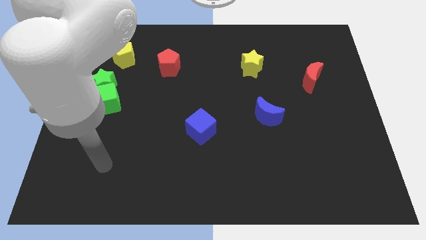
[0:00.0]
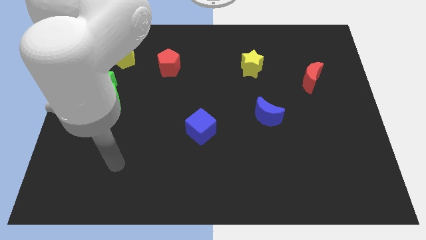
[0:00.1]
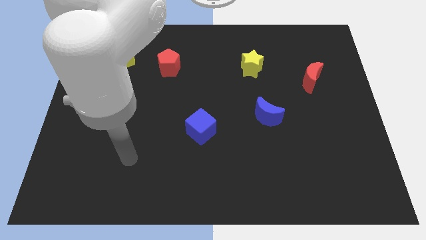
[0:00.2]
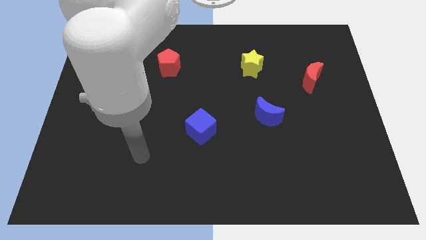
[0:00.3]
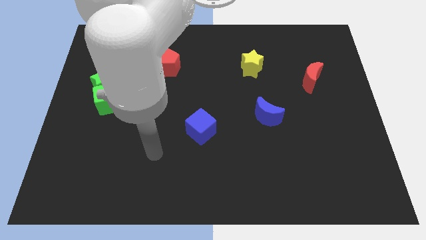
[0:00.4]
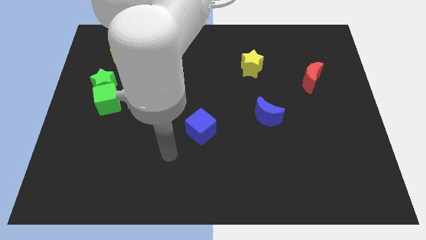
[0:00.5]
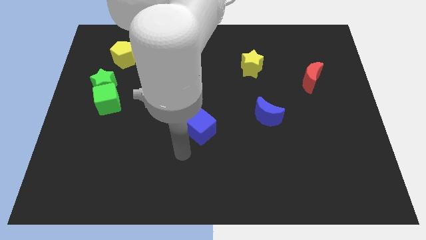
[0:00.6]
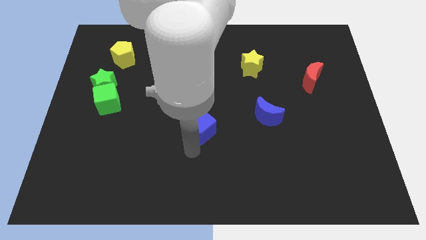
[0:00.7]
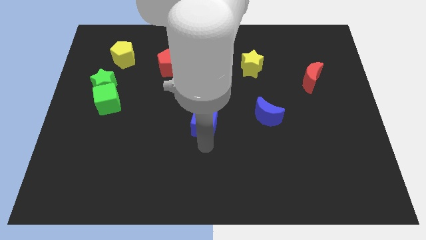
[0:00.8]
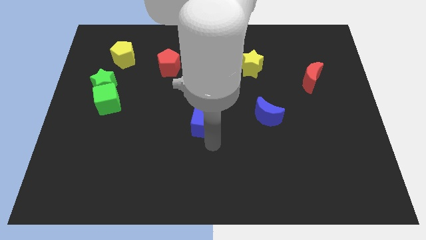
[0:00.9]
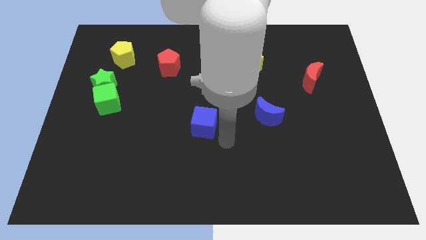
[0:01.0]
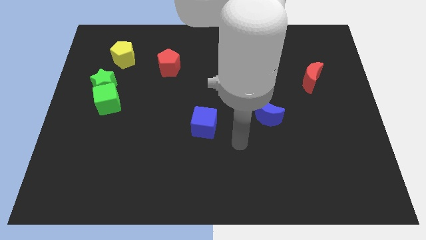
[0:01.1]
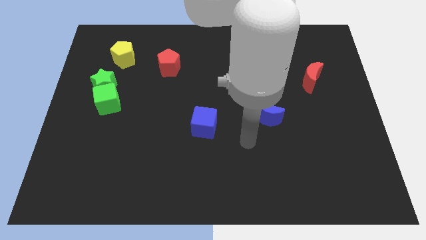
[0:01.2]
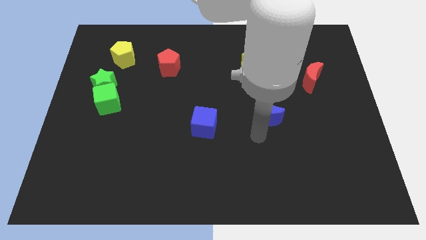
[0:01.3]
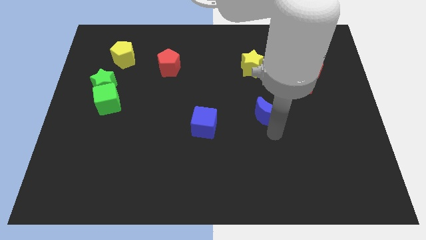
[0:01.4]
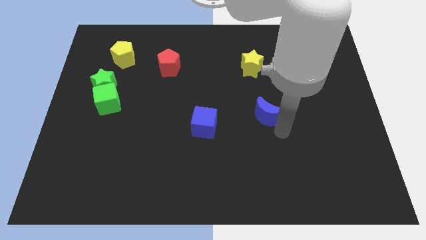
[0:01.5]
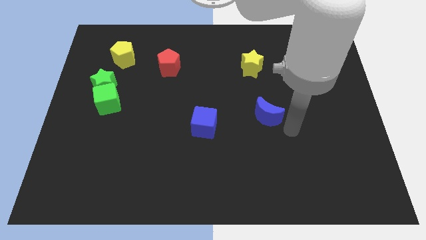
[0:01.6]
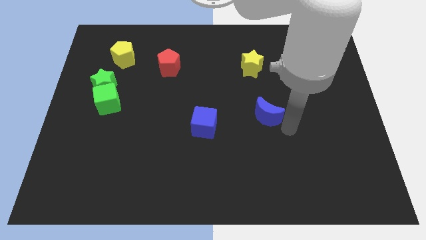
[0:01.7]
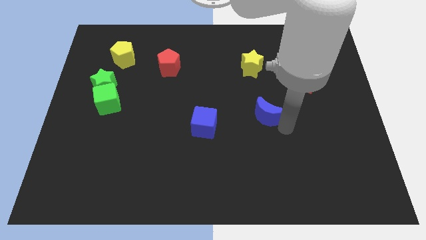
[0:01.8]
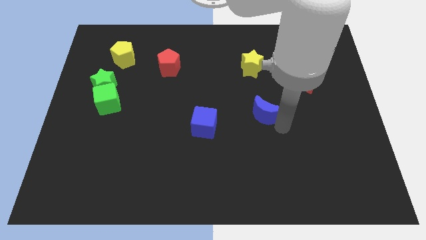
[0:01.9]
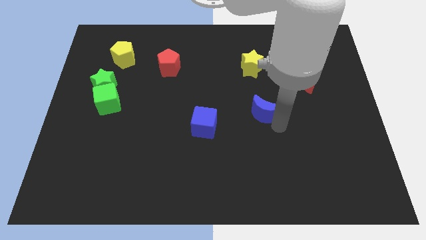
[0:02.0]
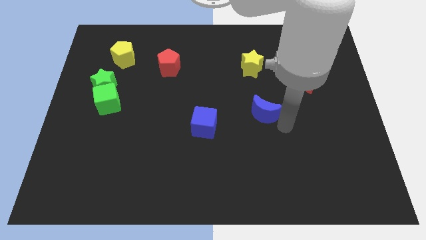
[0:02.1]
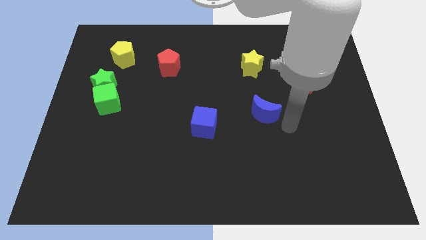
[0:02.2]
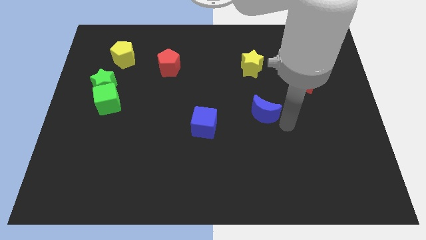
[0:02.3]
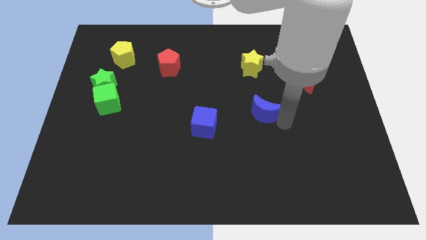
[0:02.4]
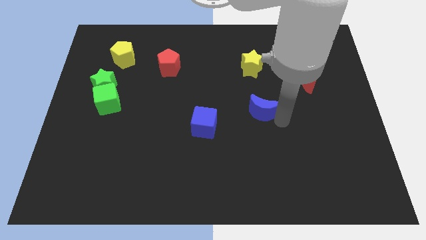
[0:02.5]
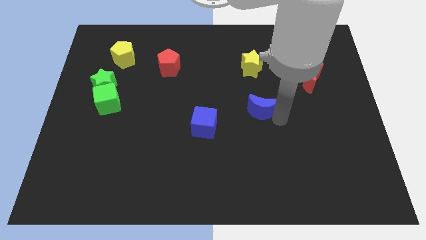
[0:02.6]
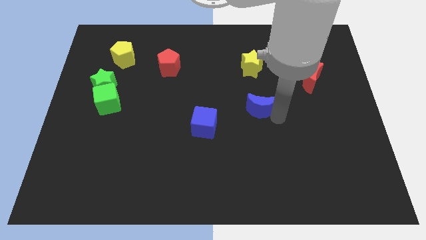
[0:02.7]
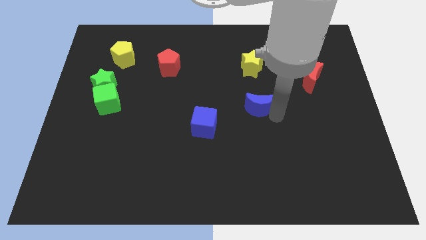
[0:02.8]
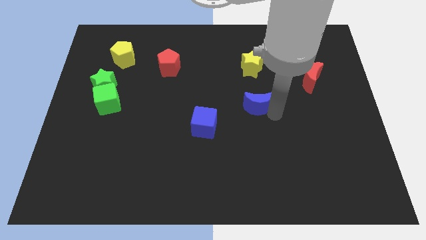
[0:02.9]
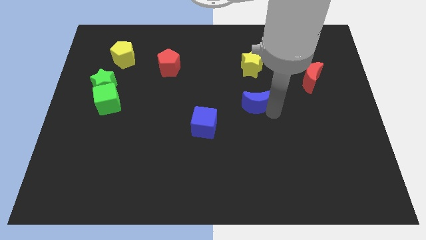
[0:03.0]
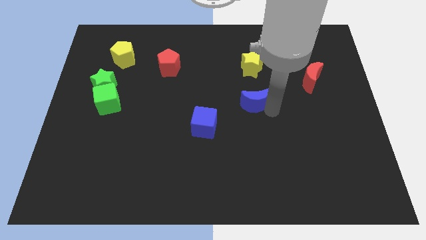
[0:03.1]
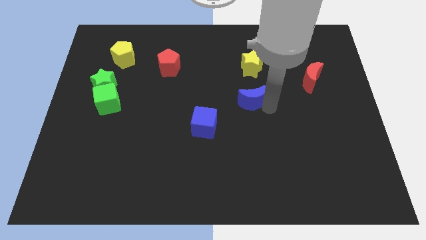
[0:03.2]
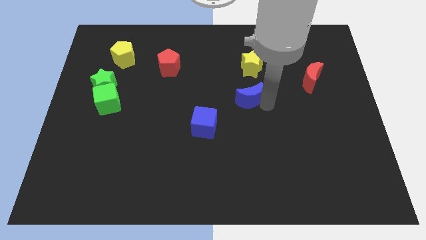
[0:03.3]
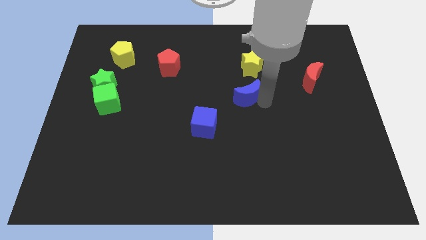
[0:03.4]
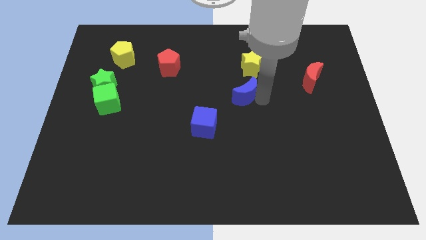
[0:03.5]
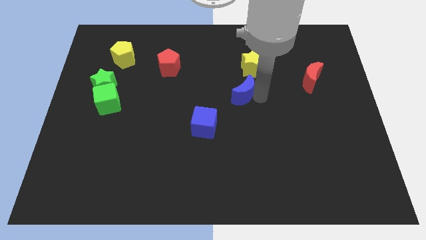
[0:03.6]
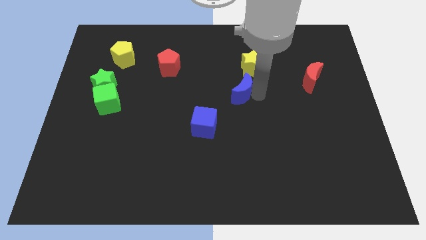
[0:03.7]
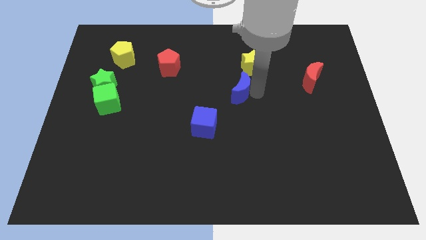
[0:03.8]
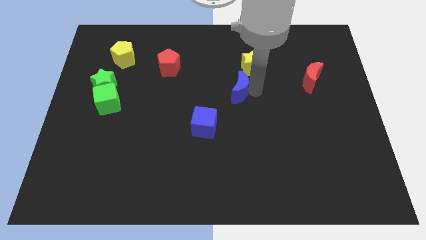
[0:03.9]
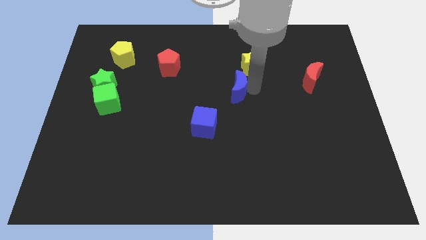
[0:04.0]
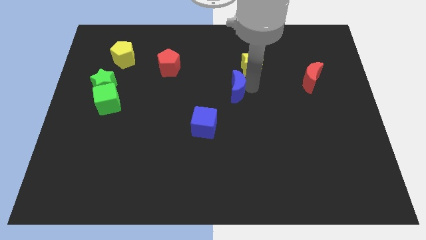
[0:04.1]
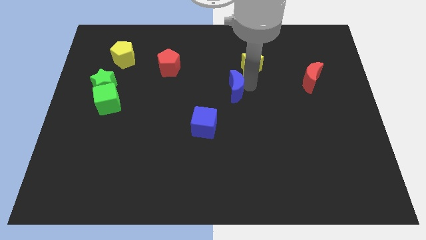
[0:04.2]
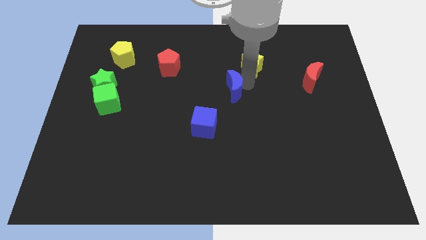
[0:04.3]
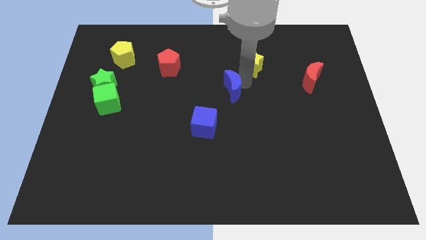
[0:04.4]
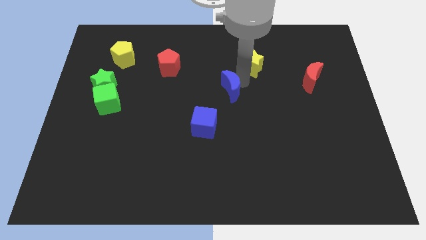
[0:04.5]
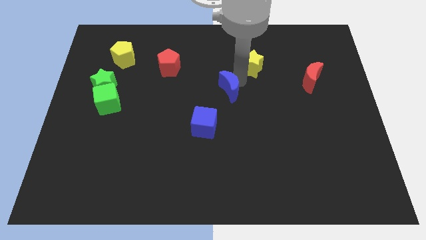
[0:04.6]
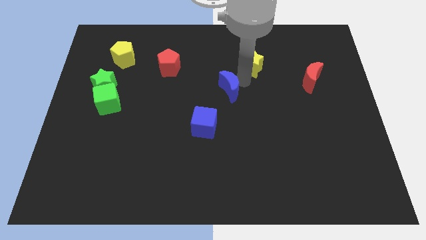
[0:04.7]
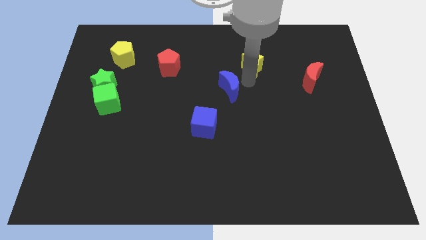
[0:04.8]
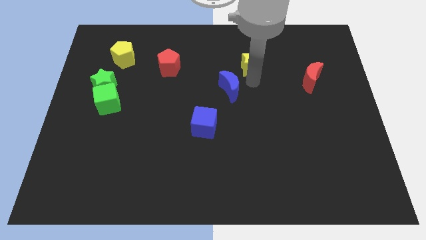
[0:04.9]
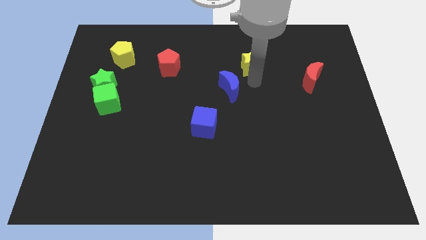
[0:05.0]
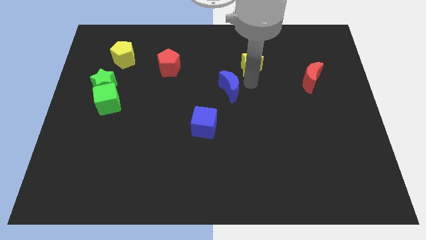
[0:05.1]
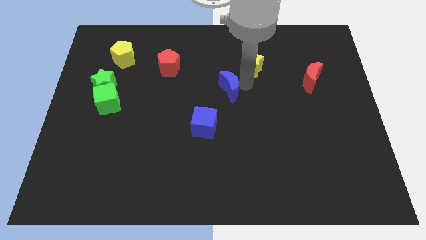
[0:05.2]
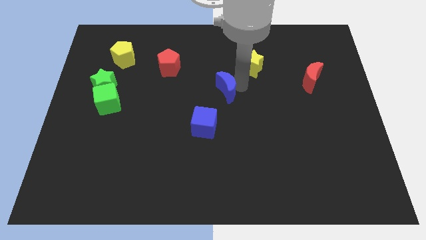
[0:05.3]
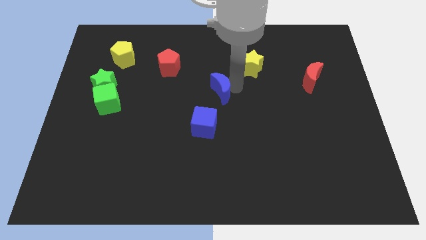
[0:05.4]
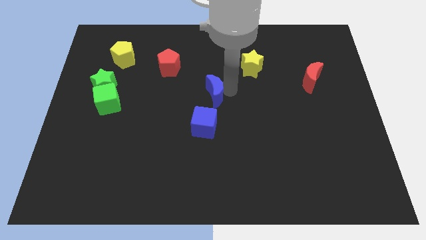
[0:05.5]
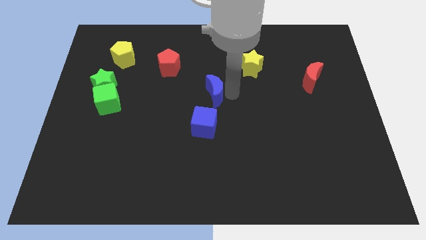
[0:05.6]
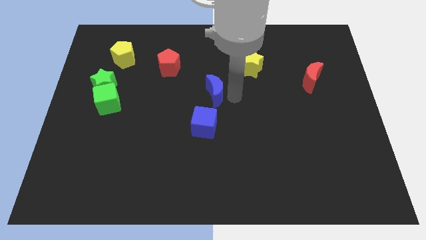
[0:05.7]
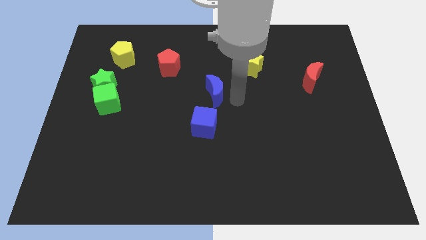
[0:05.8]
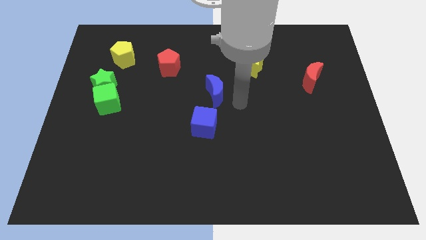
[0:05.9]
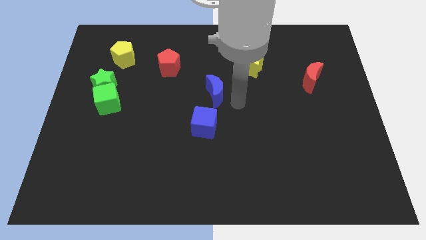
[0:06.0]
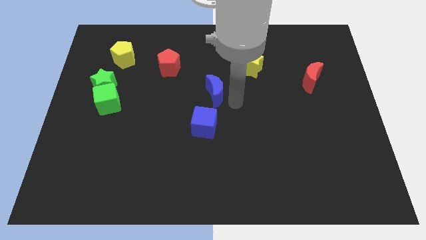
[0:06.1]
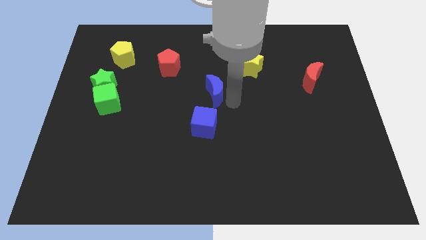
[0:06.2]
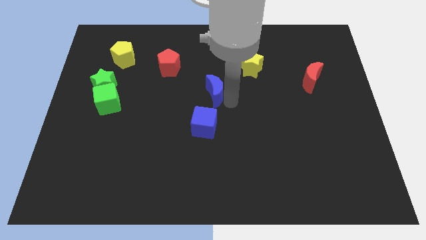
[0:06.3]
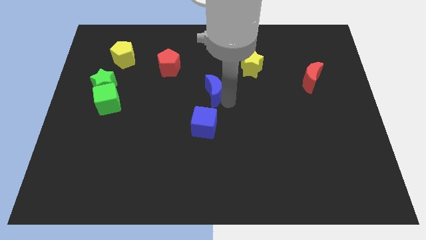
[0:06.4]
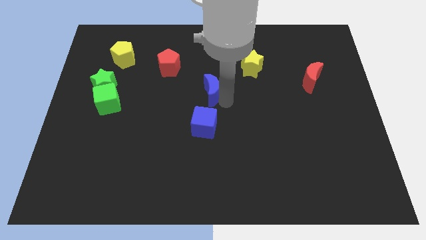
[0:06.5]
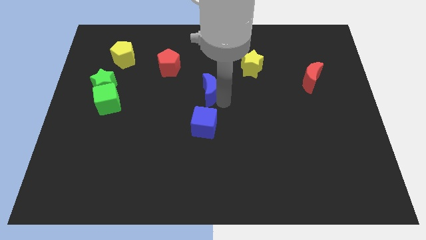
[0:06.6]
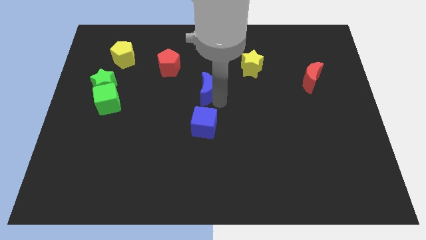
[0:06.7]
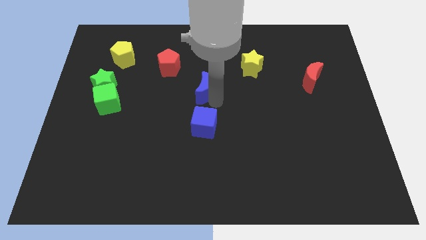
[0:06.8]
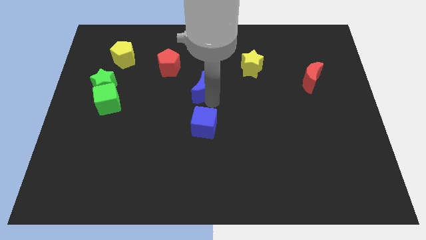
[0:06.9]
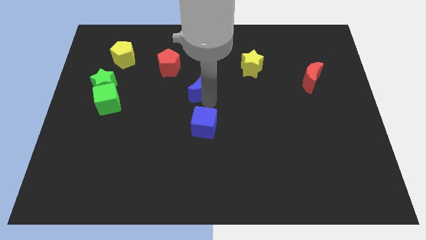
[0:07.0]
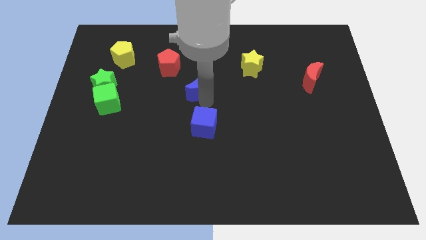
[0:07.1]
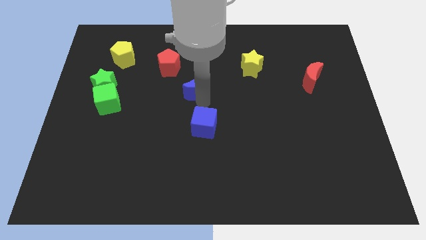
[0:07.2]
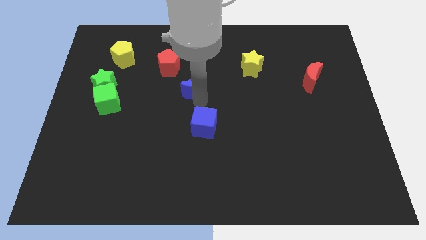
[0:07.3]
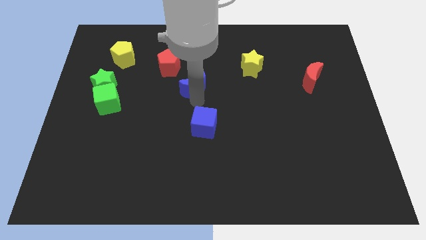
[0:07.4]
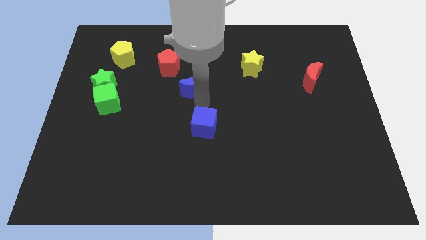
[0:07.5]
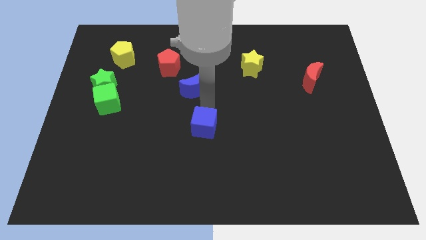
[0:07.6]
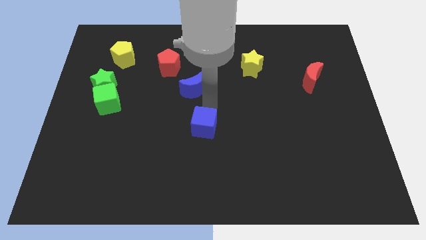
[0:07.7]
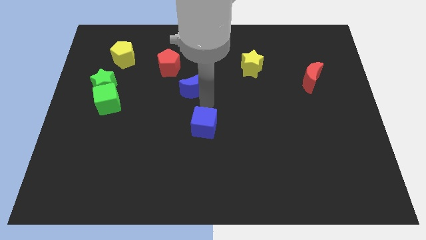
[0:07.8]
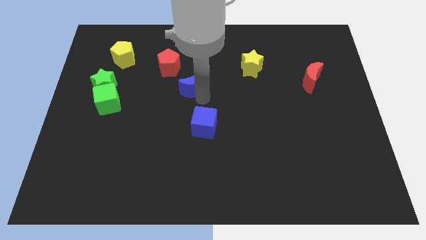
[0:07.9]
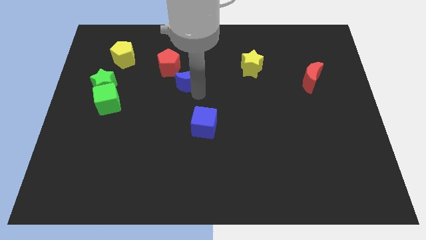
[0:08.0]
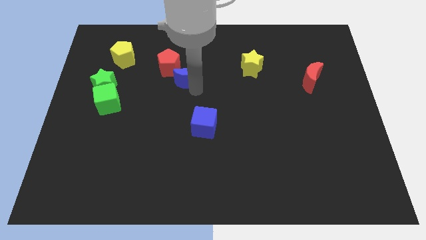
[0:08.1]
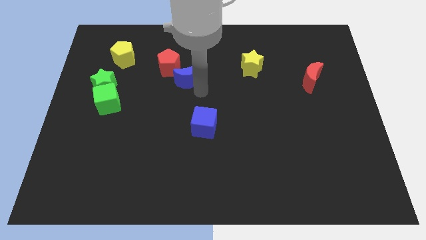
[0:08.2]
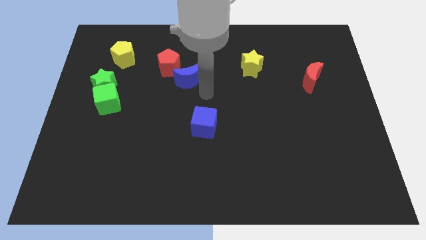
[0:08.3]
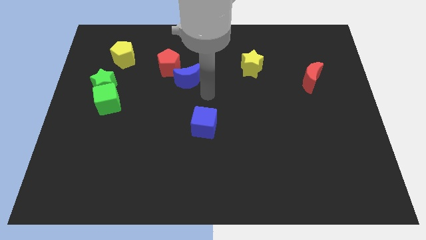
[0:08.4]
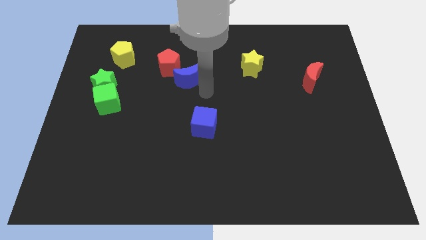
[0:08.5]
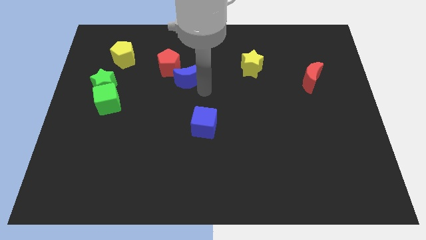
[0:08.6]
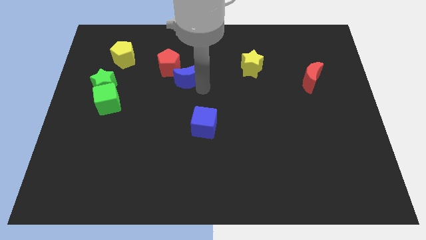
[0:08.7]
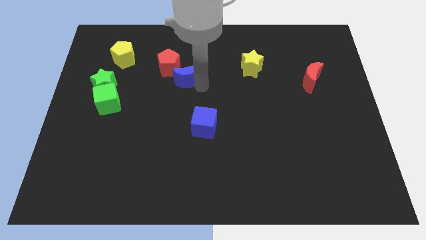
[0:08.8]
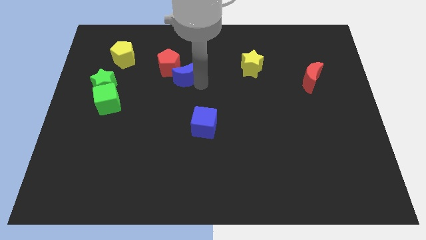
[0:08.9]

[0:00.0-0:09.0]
push the blue moon next to the red pentagon
